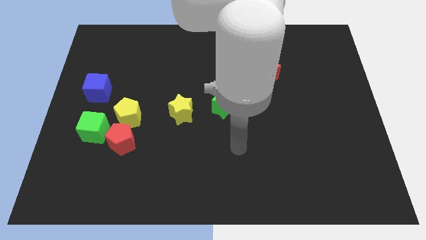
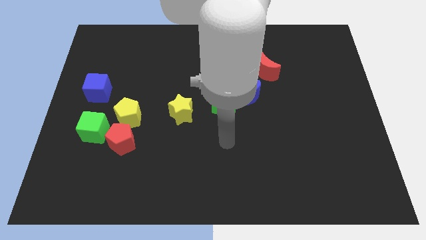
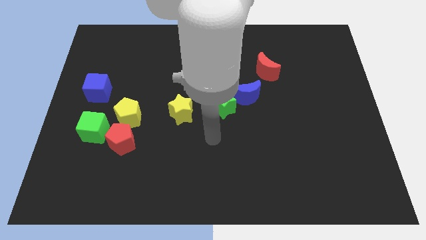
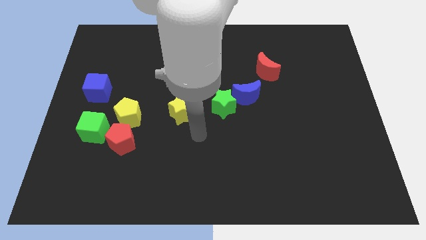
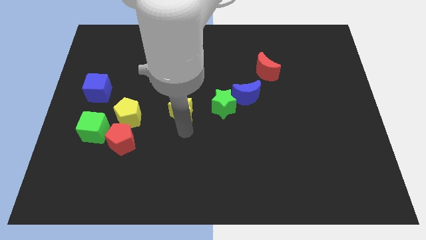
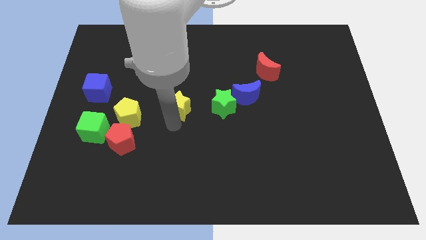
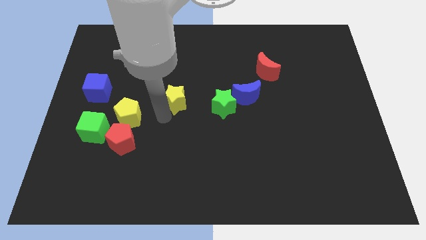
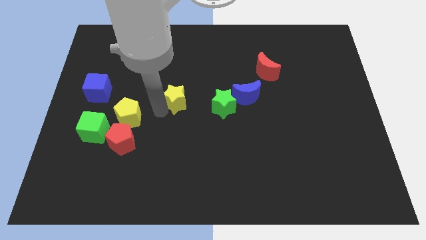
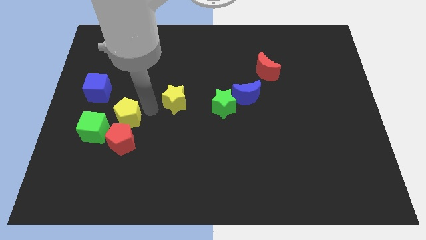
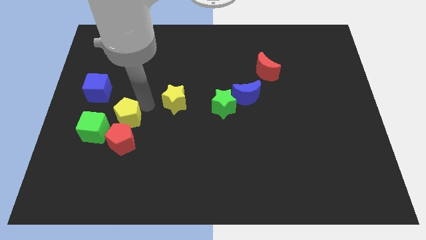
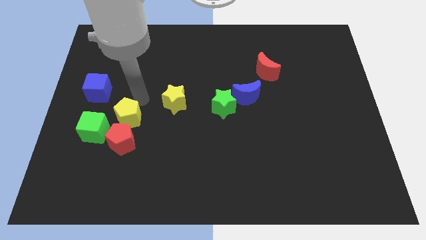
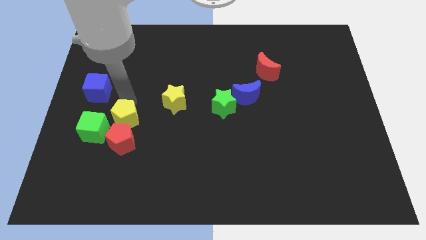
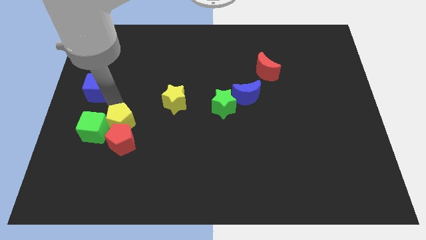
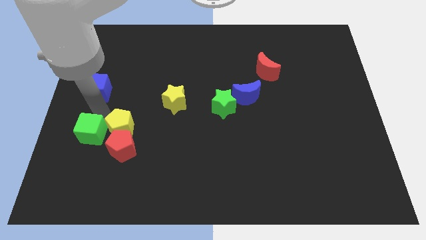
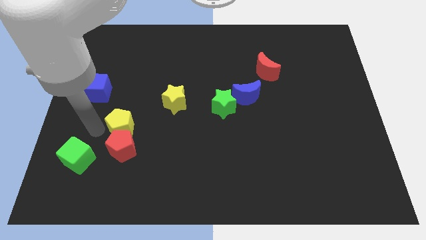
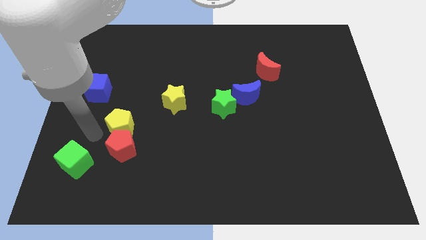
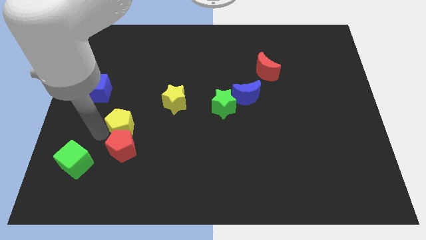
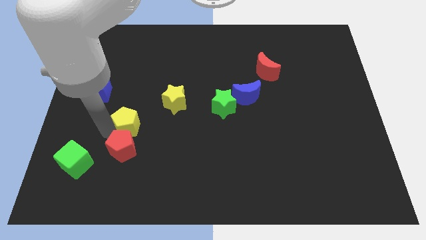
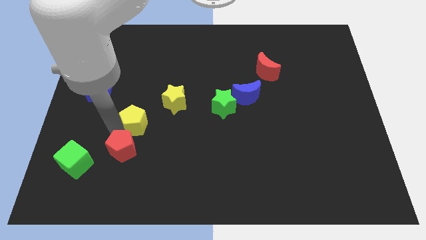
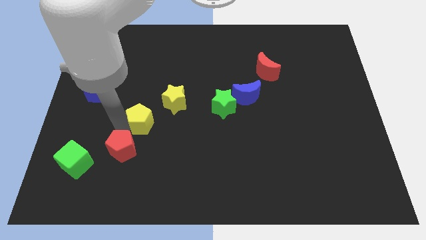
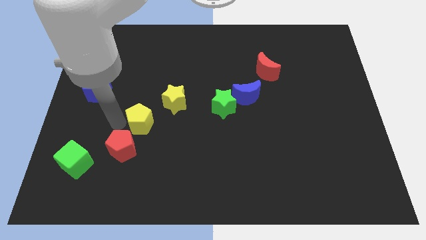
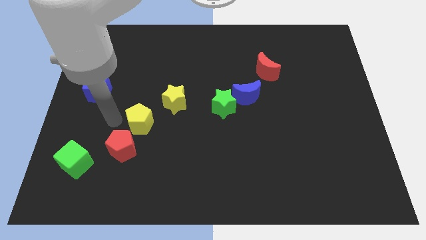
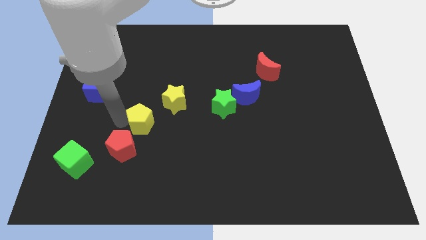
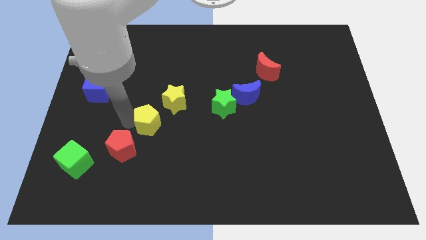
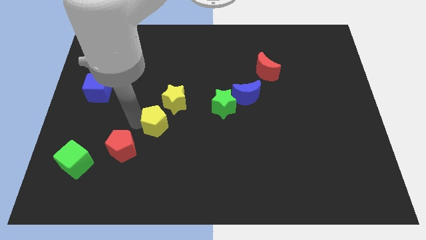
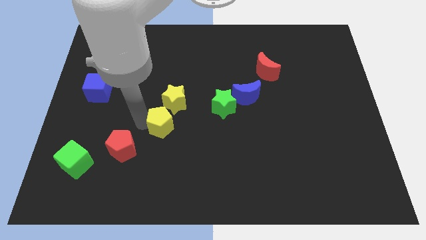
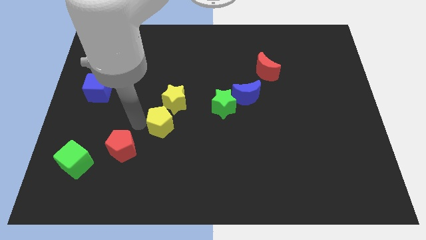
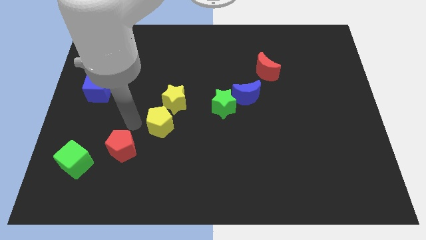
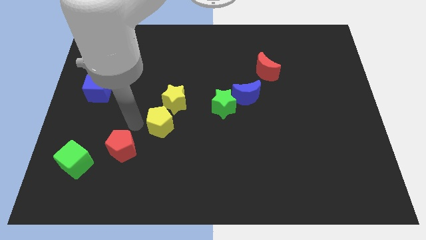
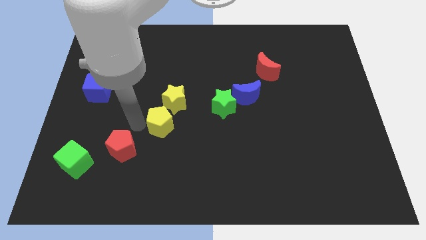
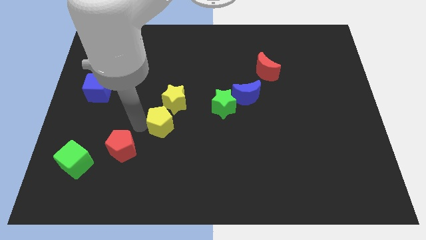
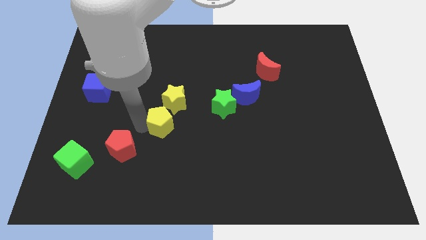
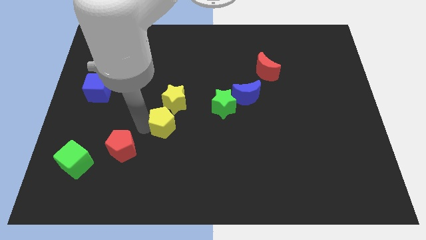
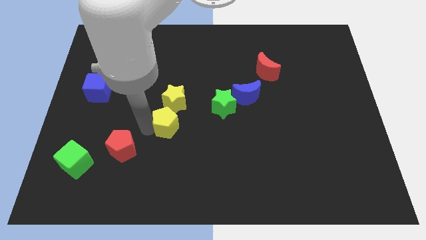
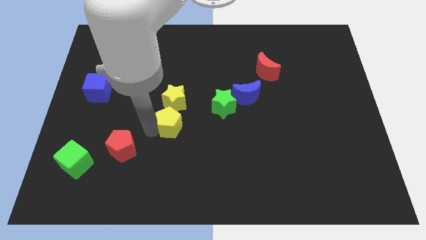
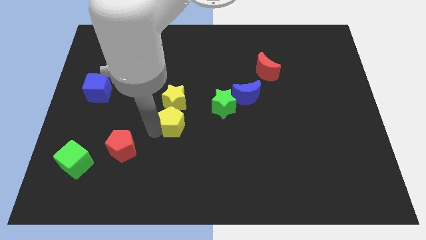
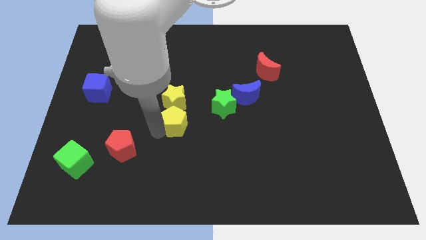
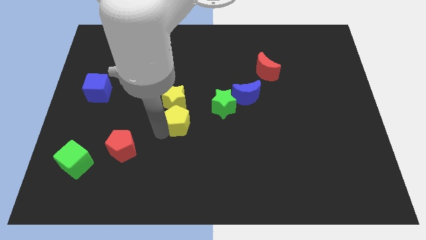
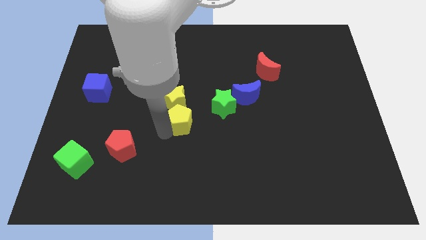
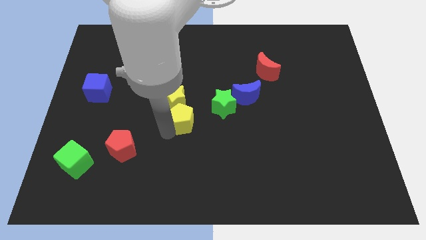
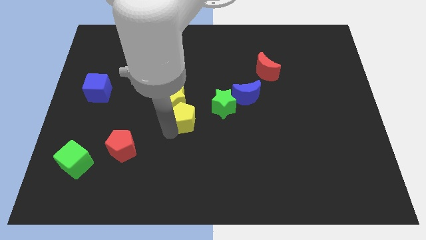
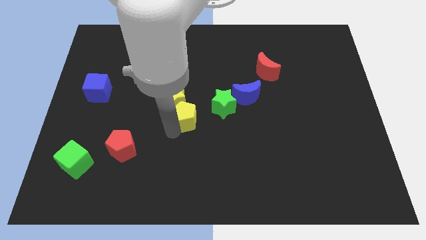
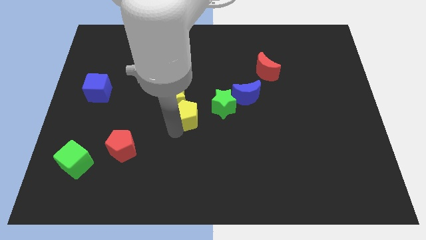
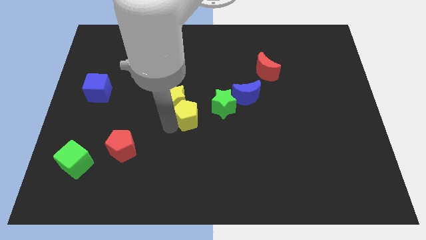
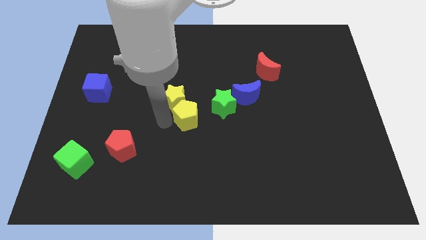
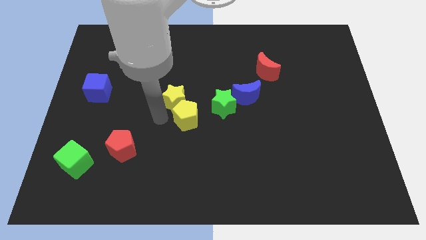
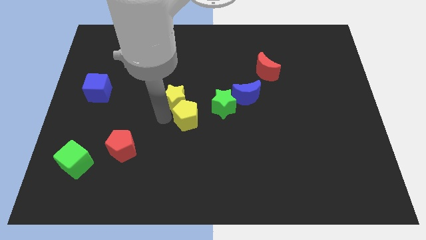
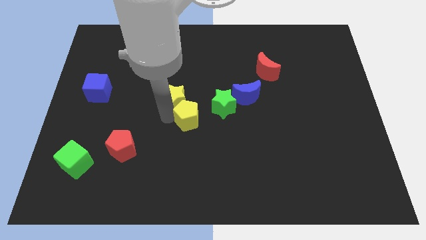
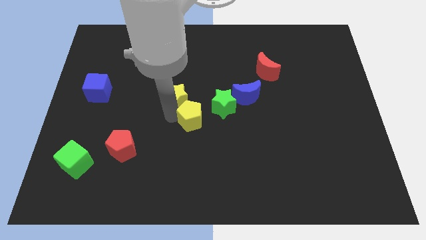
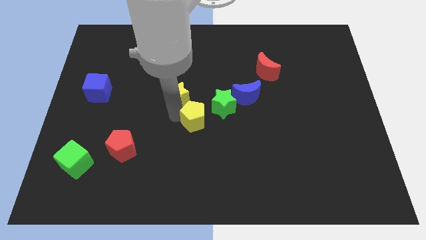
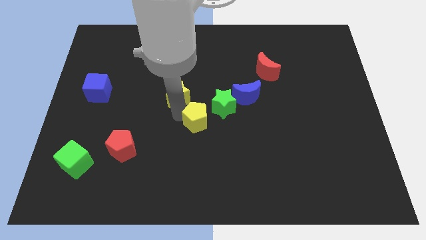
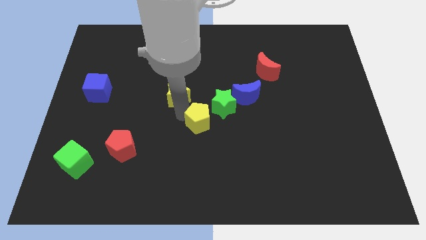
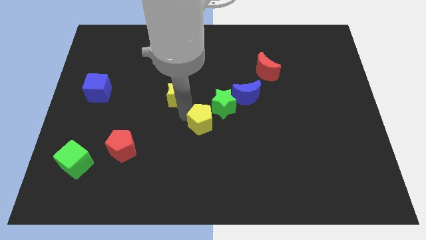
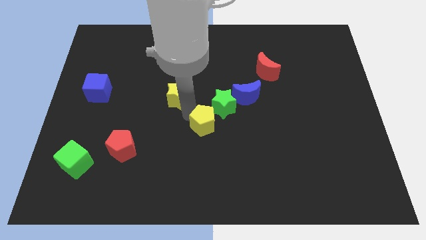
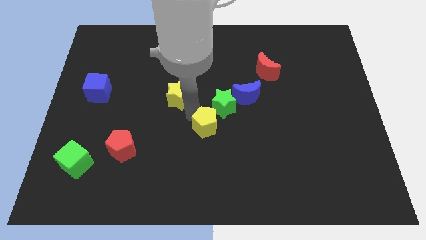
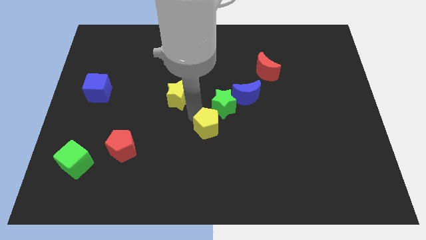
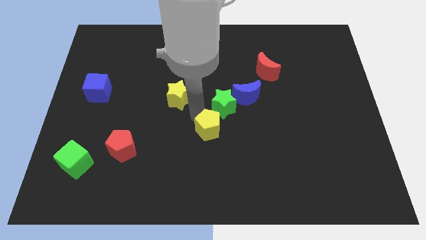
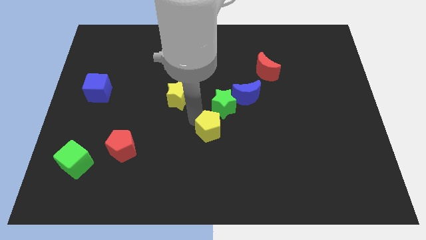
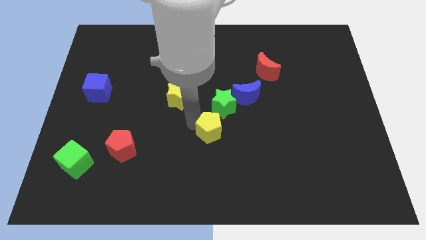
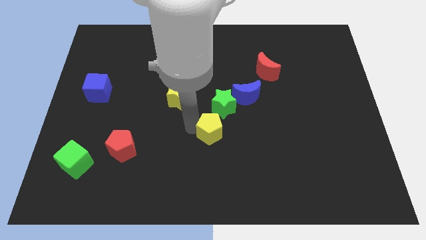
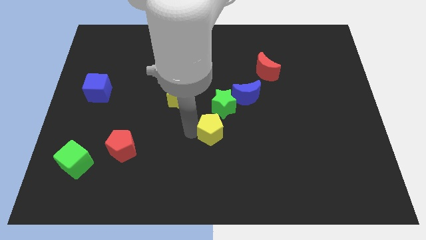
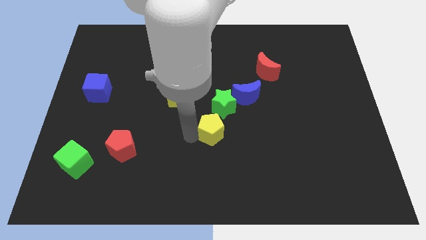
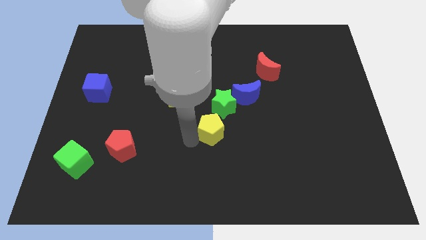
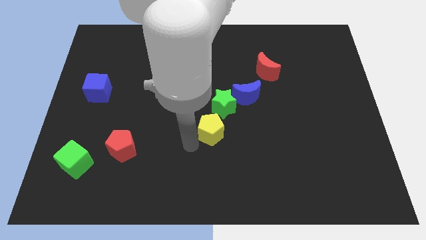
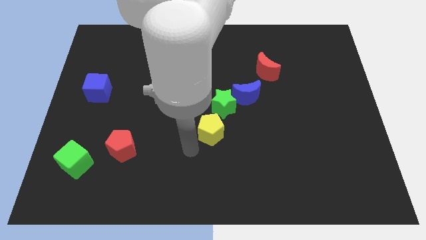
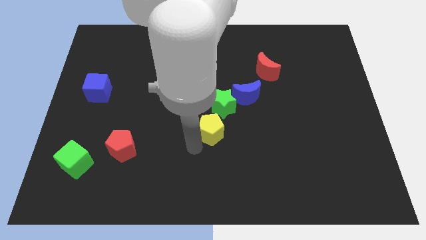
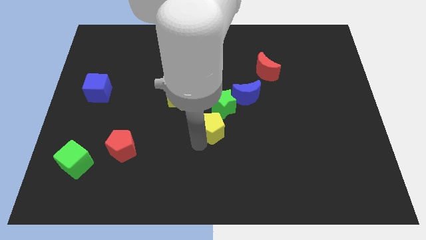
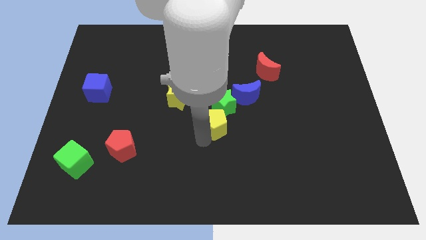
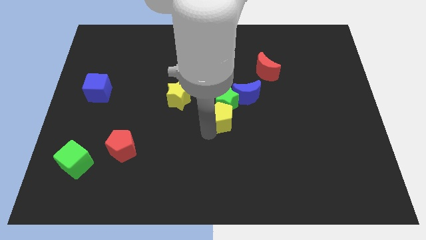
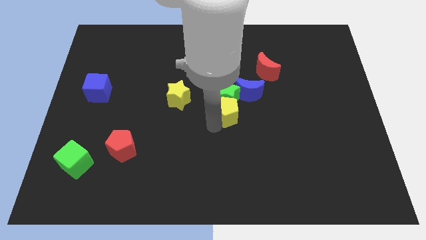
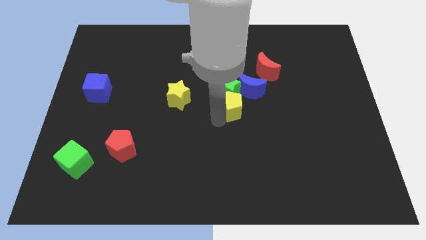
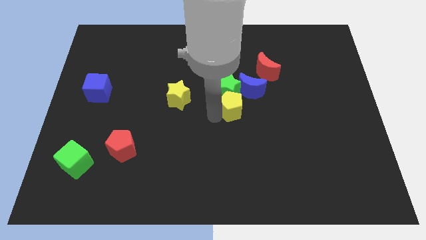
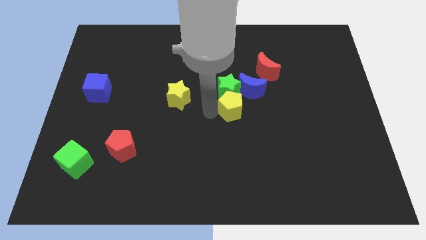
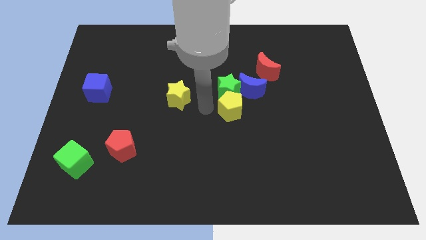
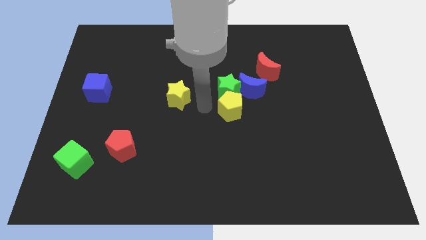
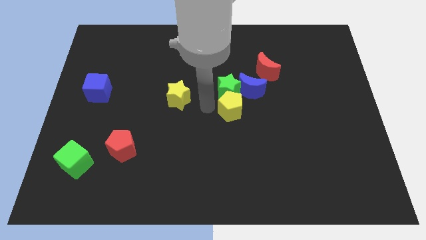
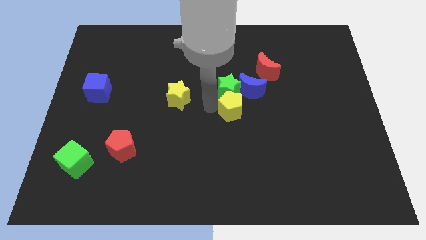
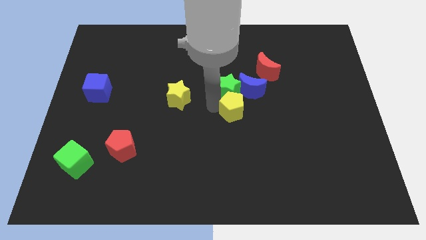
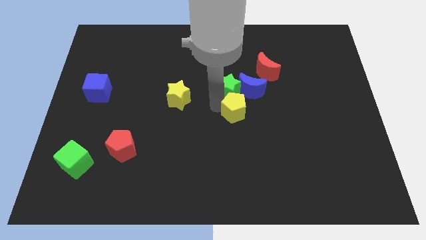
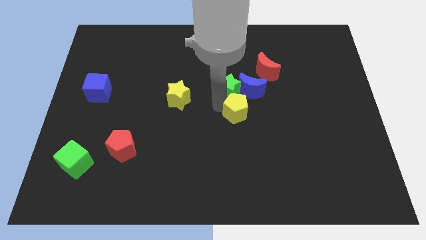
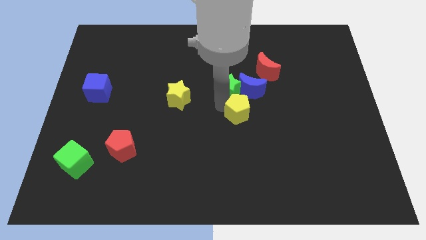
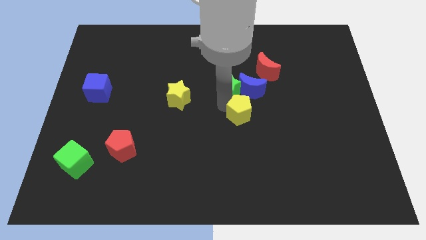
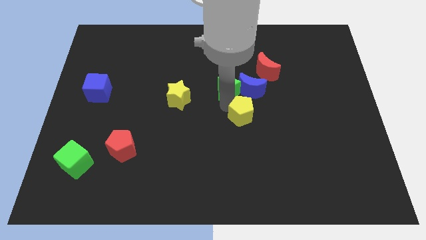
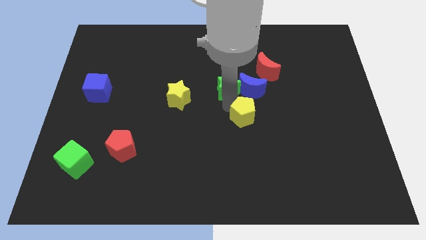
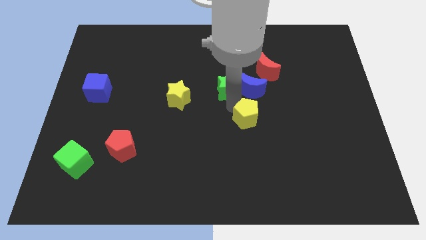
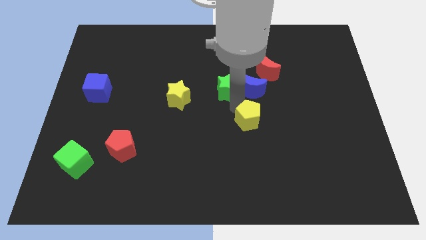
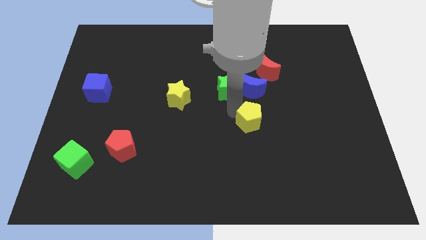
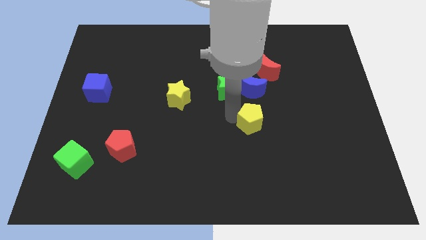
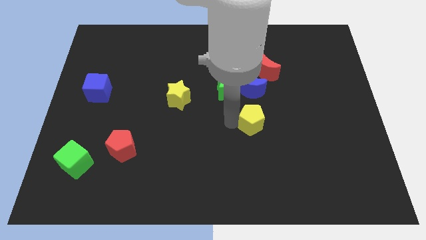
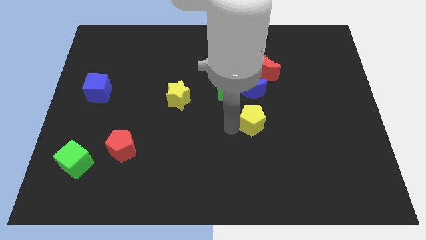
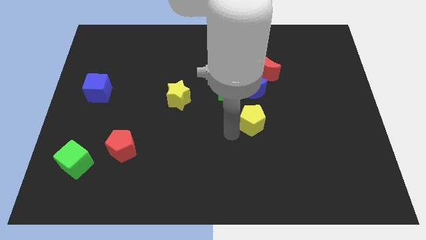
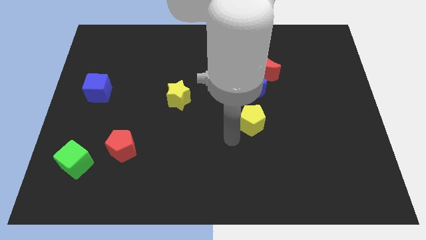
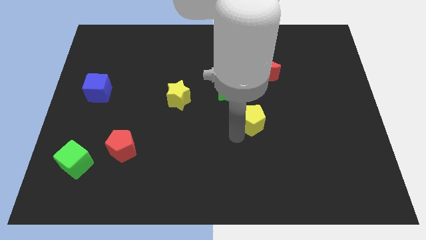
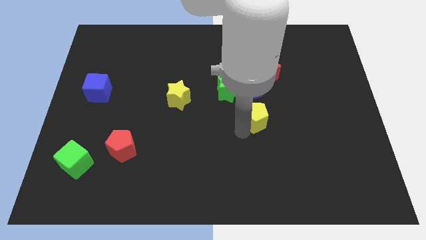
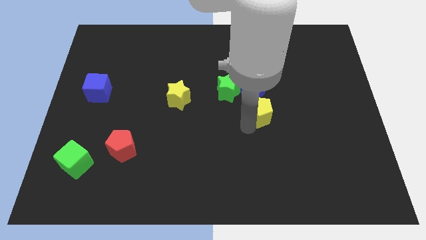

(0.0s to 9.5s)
push the yellow pentagon to the bottom right of the blue moon
